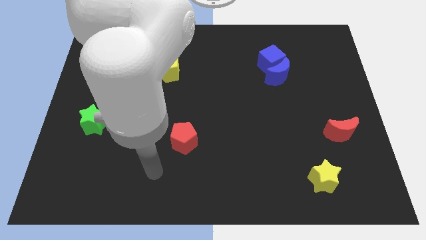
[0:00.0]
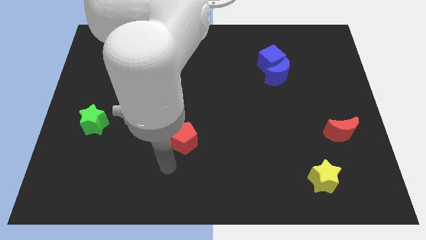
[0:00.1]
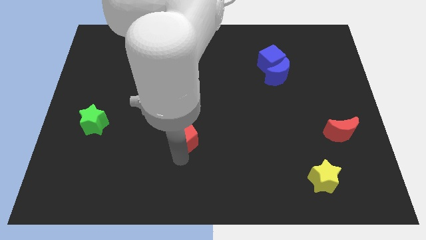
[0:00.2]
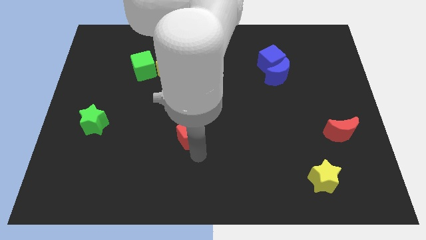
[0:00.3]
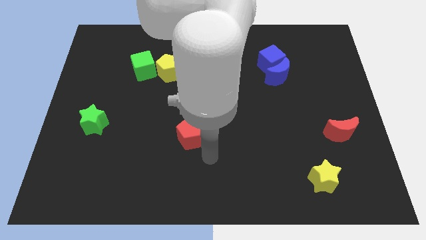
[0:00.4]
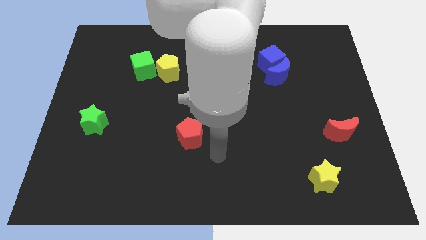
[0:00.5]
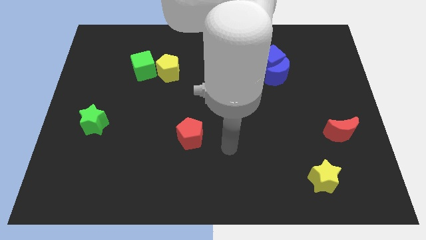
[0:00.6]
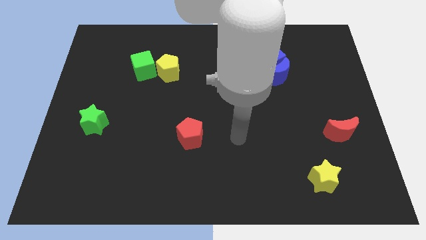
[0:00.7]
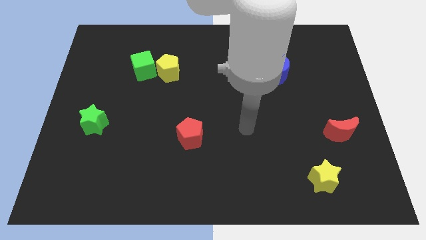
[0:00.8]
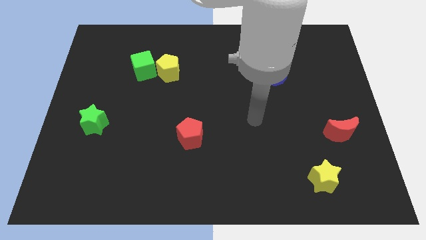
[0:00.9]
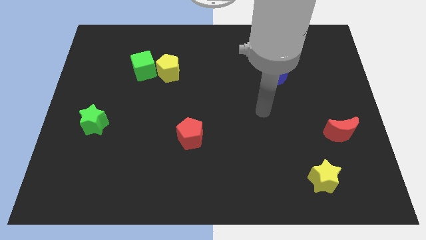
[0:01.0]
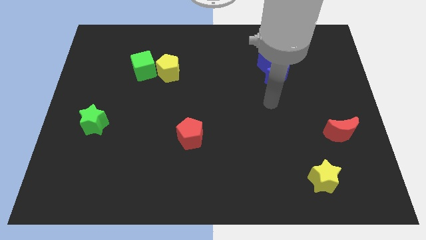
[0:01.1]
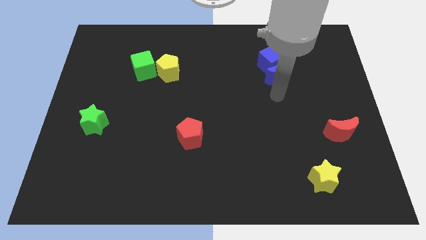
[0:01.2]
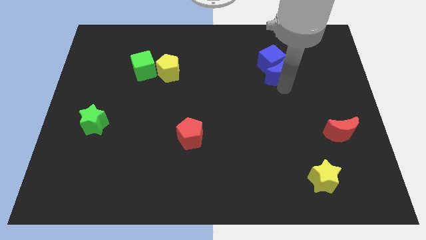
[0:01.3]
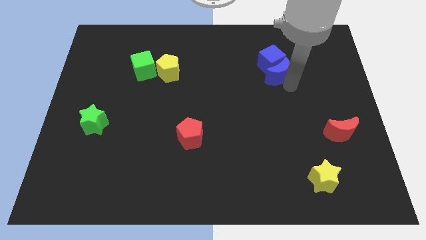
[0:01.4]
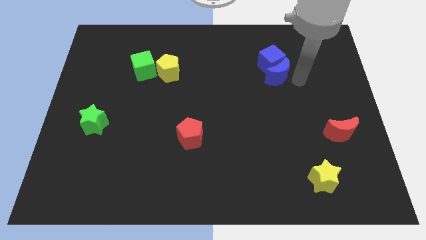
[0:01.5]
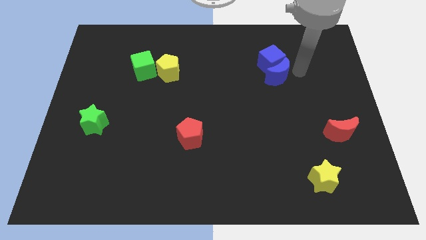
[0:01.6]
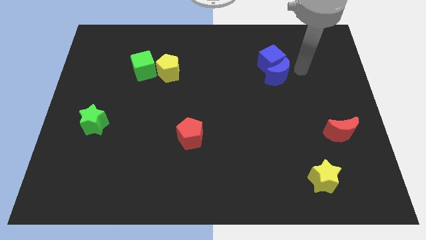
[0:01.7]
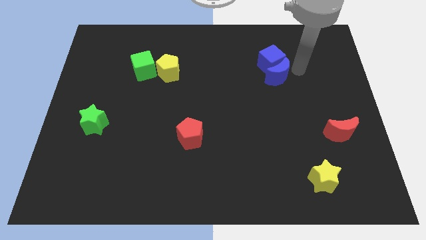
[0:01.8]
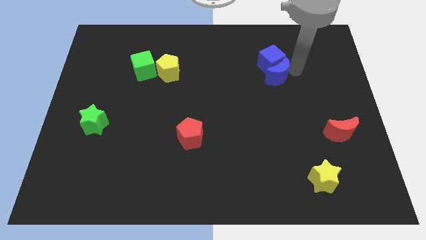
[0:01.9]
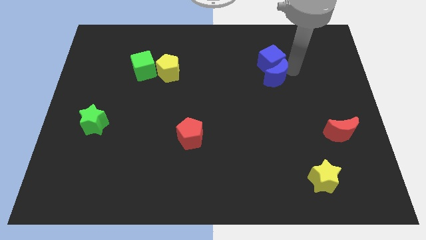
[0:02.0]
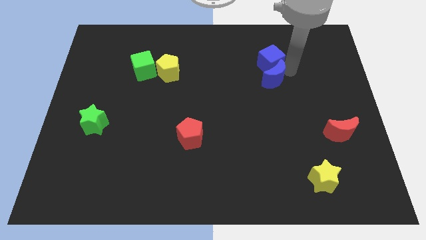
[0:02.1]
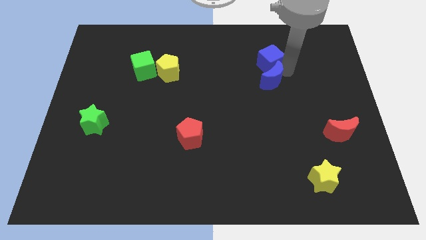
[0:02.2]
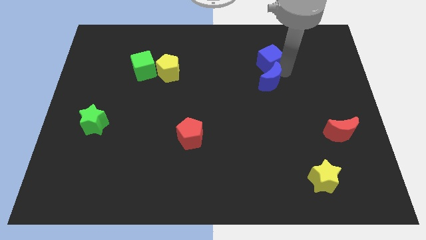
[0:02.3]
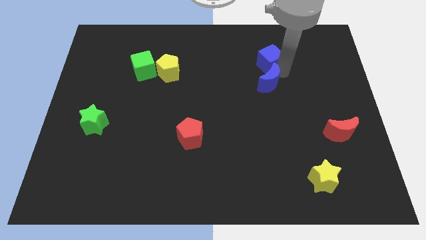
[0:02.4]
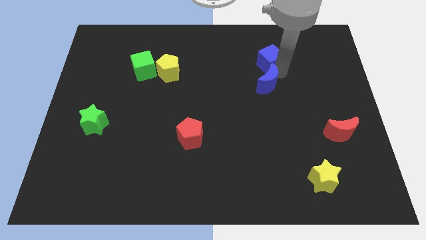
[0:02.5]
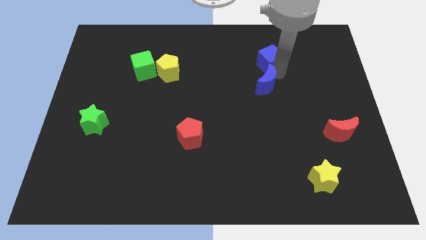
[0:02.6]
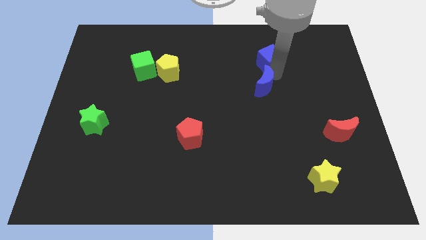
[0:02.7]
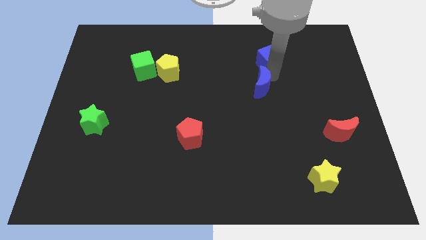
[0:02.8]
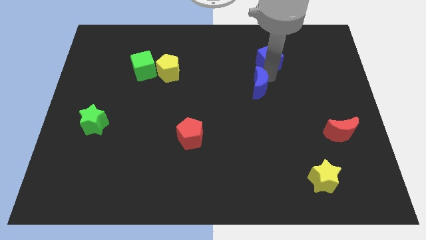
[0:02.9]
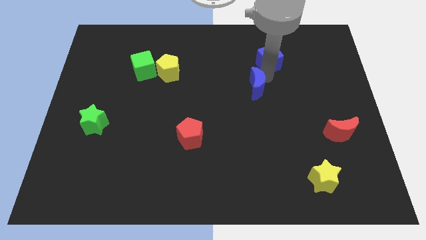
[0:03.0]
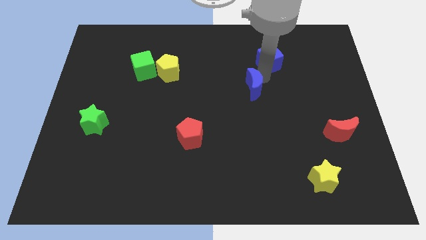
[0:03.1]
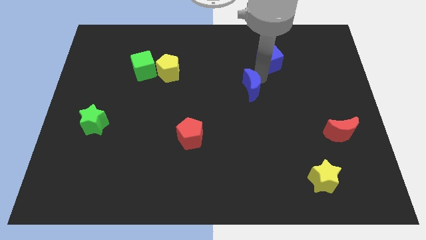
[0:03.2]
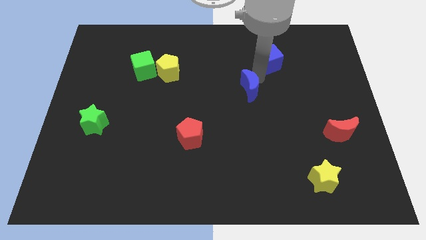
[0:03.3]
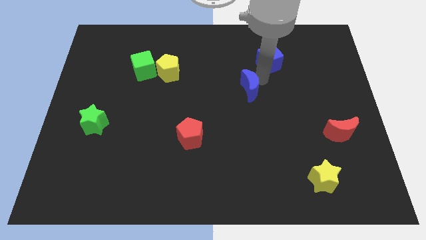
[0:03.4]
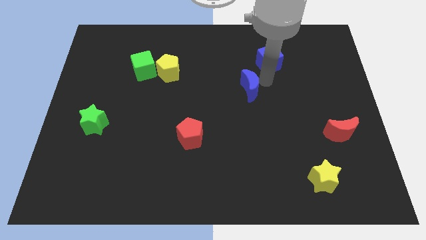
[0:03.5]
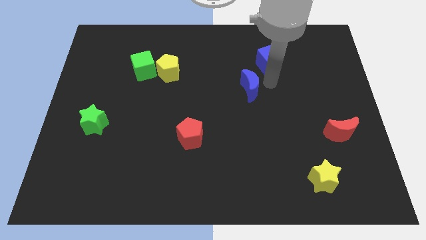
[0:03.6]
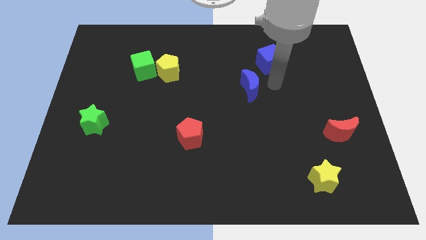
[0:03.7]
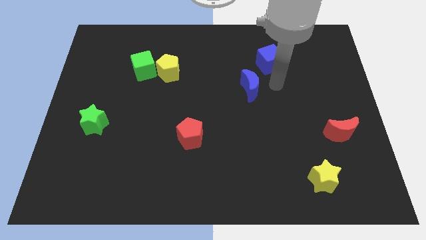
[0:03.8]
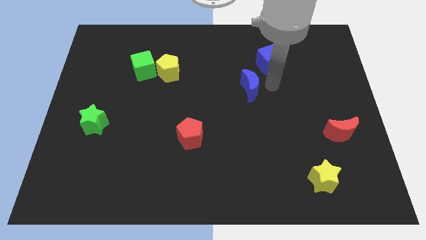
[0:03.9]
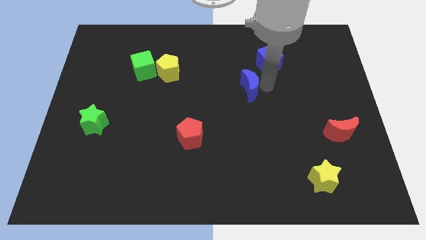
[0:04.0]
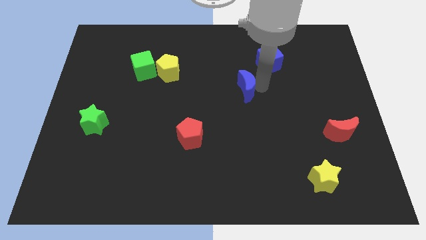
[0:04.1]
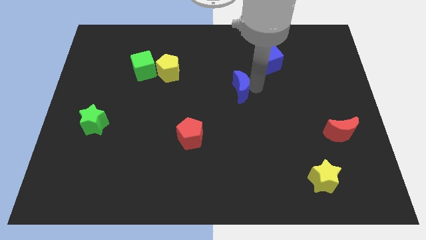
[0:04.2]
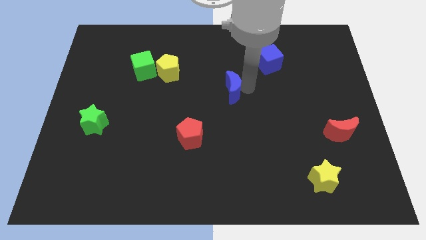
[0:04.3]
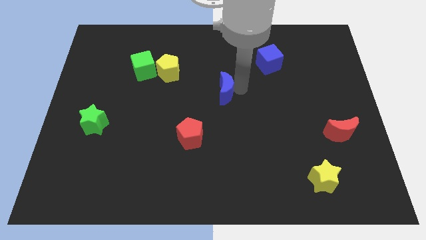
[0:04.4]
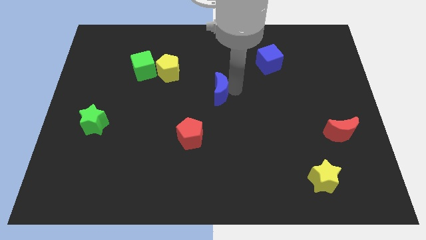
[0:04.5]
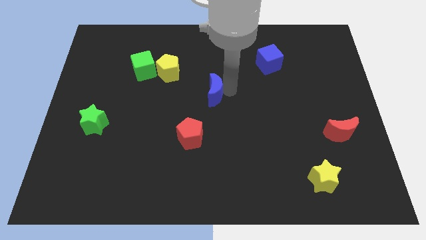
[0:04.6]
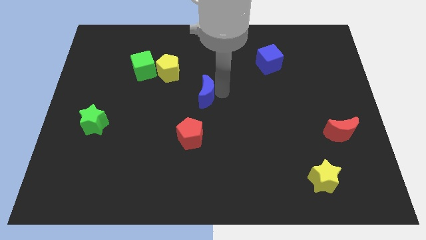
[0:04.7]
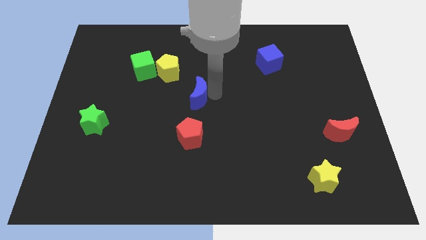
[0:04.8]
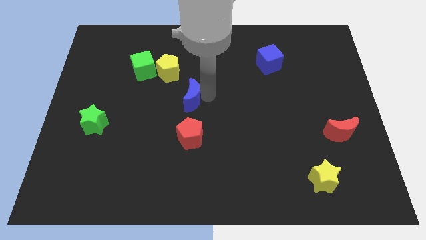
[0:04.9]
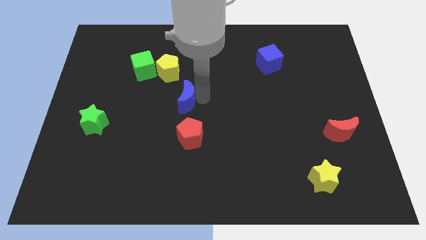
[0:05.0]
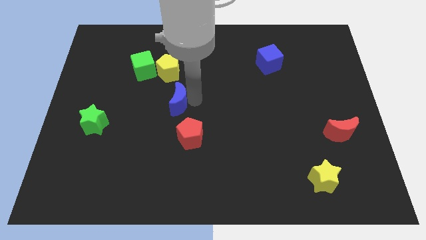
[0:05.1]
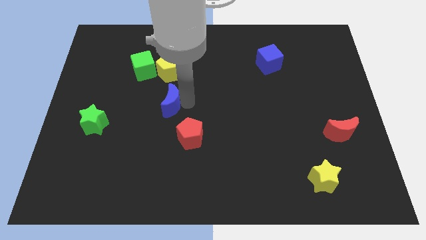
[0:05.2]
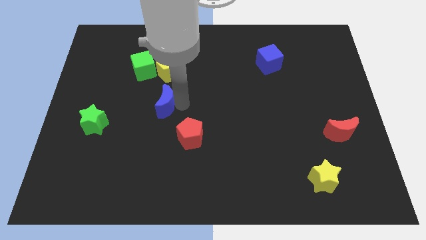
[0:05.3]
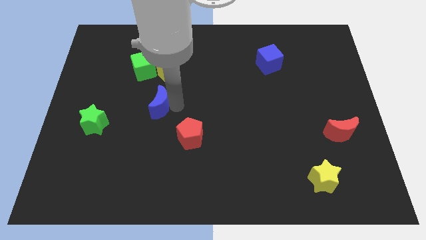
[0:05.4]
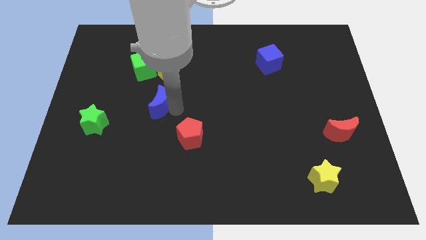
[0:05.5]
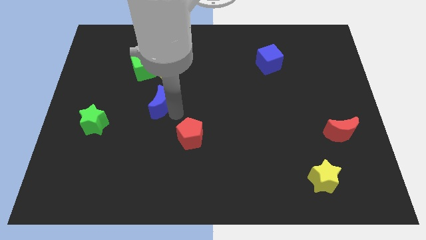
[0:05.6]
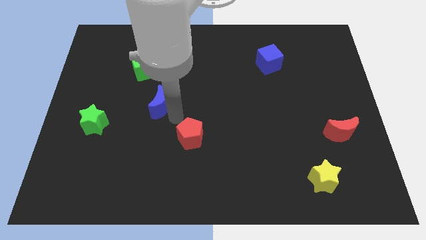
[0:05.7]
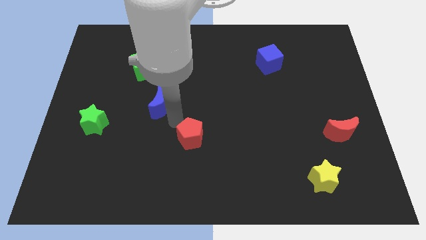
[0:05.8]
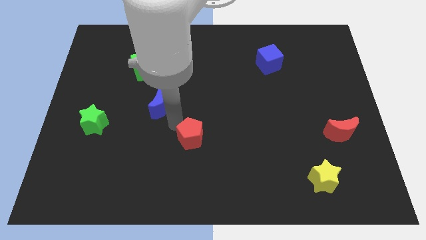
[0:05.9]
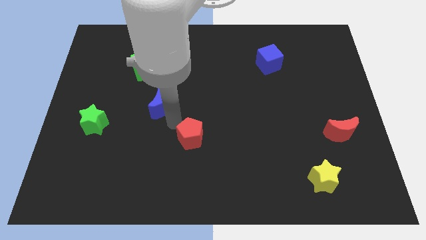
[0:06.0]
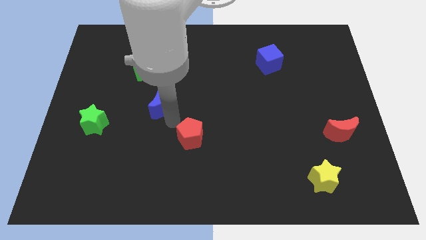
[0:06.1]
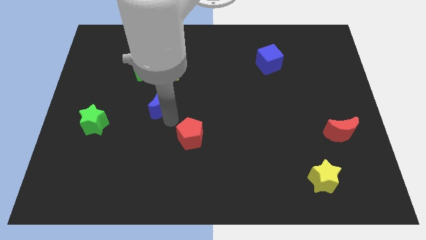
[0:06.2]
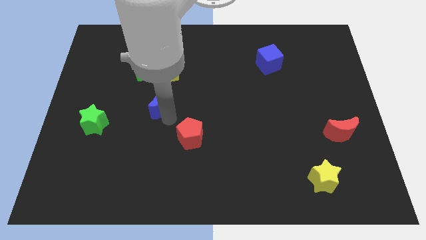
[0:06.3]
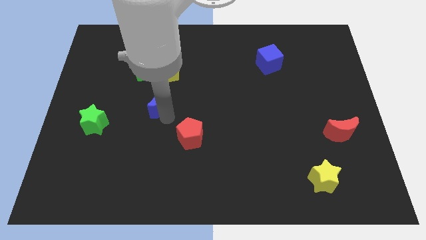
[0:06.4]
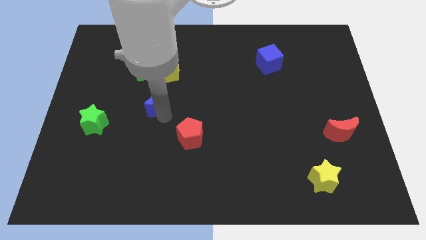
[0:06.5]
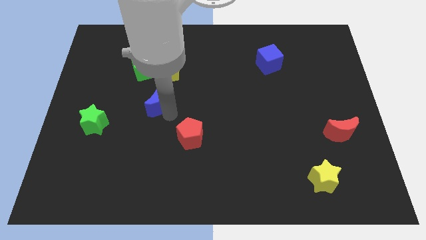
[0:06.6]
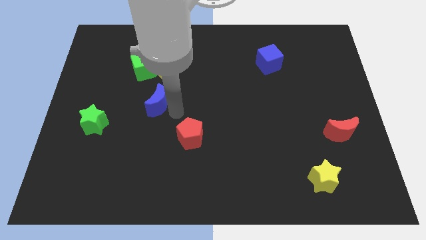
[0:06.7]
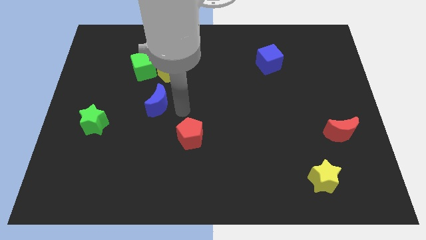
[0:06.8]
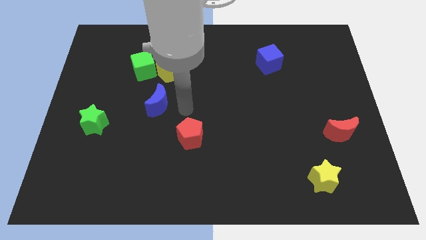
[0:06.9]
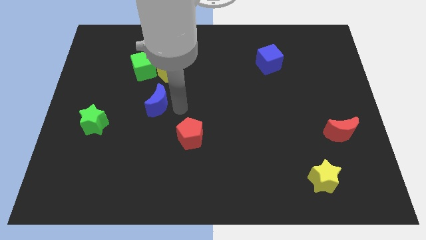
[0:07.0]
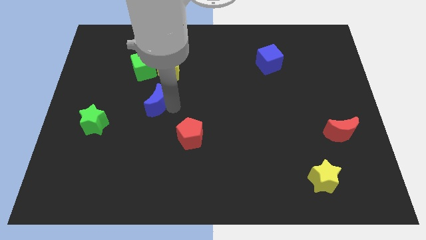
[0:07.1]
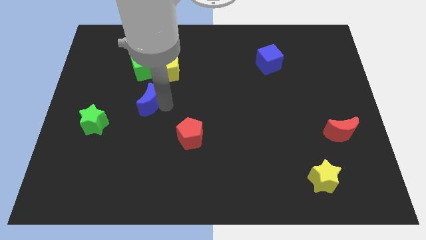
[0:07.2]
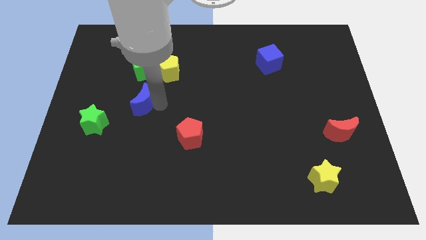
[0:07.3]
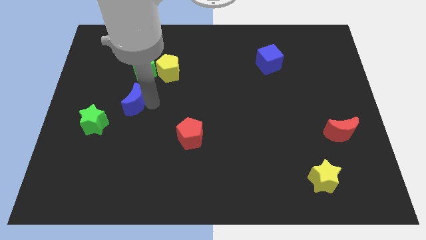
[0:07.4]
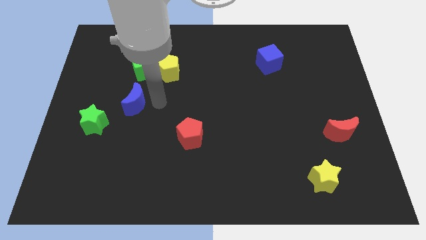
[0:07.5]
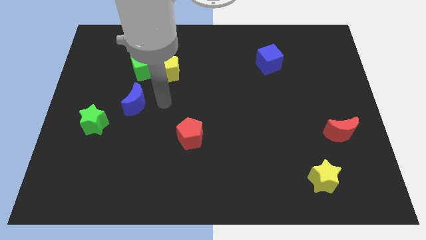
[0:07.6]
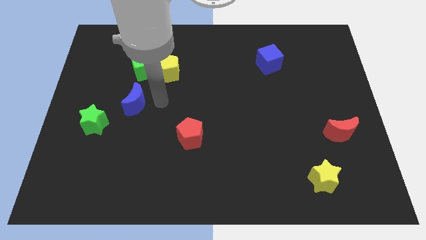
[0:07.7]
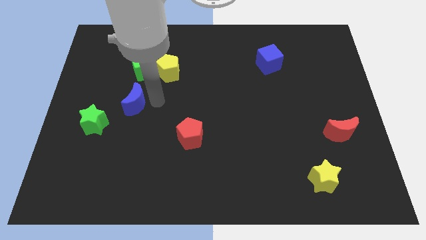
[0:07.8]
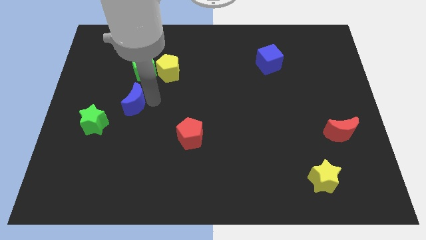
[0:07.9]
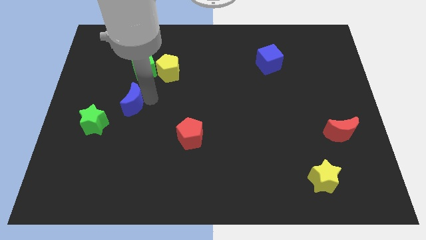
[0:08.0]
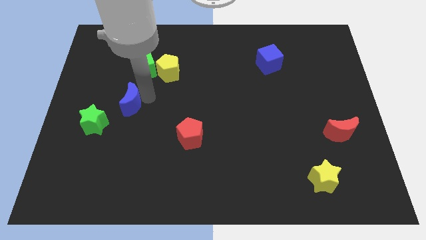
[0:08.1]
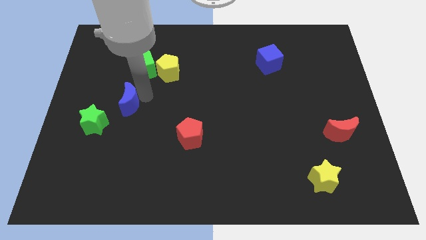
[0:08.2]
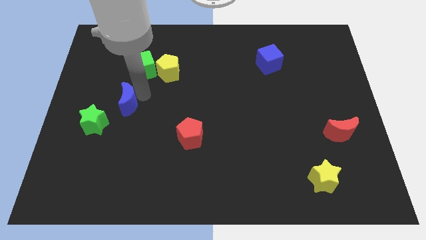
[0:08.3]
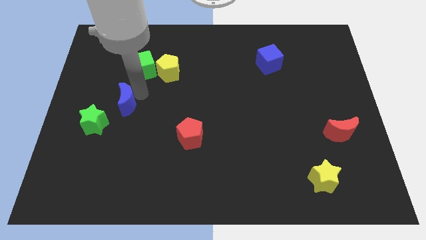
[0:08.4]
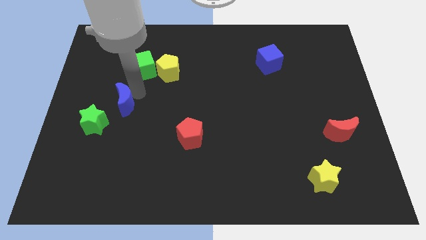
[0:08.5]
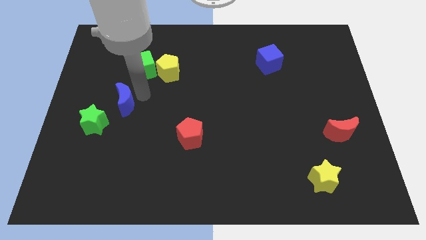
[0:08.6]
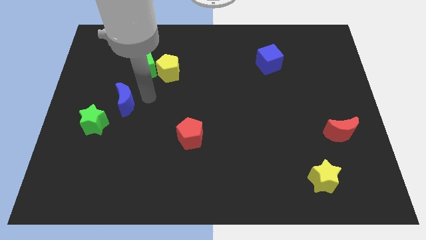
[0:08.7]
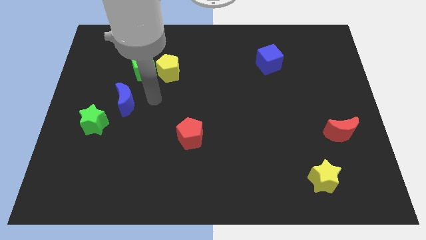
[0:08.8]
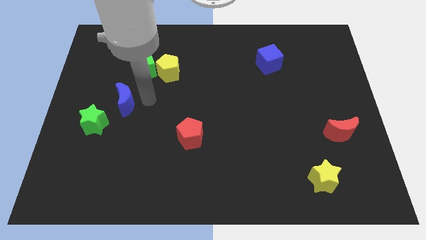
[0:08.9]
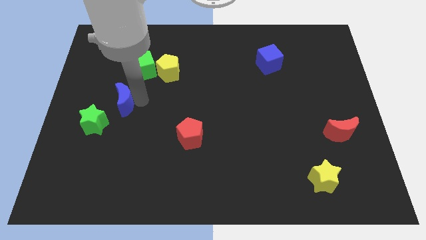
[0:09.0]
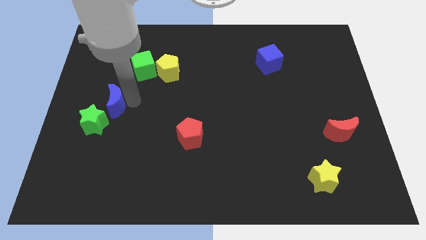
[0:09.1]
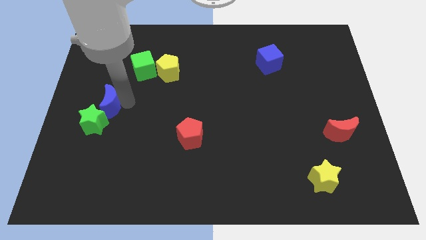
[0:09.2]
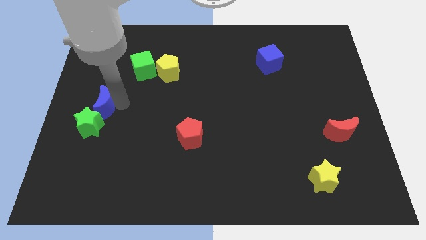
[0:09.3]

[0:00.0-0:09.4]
push the blue moon to the center left
